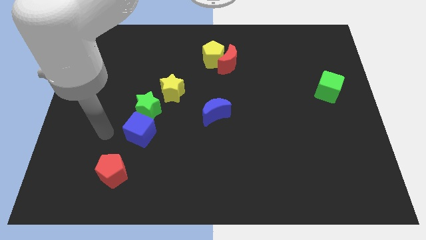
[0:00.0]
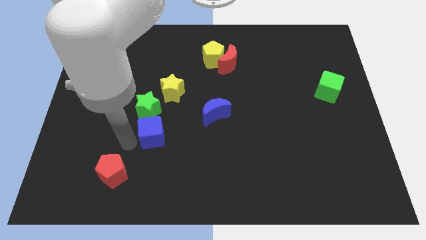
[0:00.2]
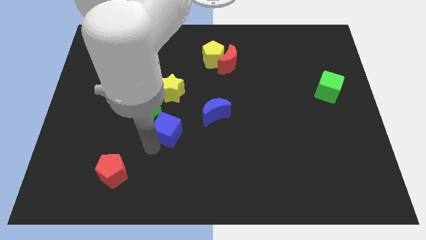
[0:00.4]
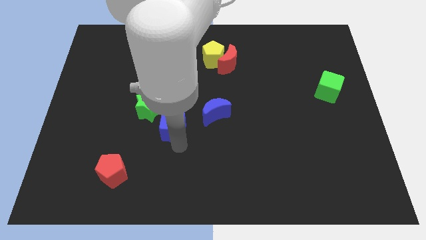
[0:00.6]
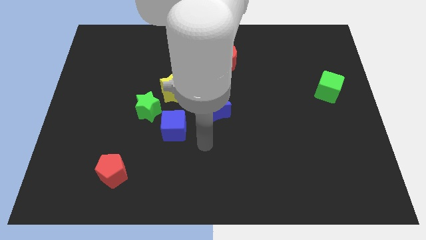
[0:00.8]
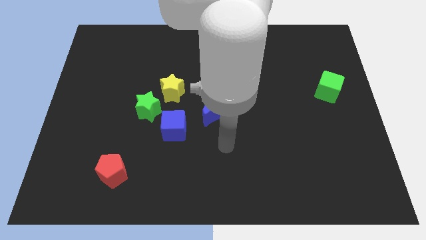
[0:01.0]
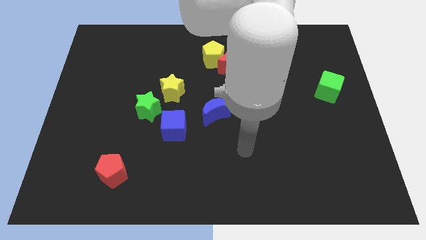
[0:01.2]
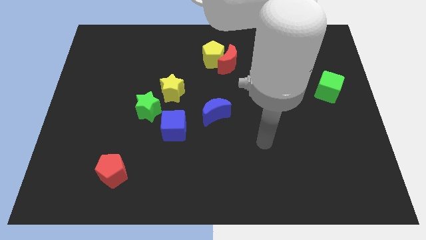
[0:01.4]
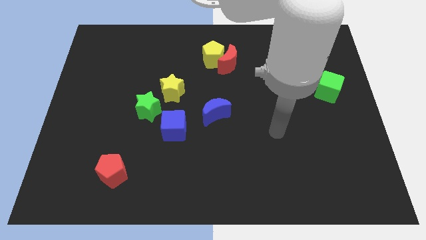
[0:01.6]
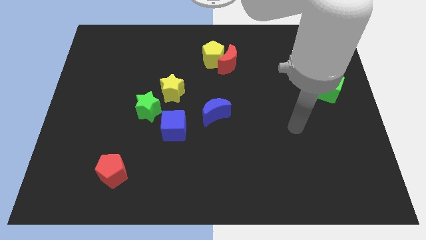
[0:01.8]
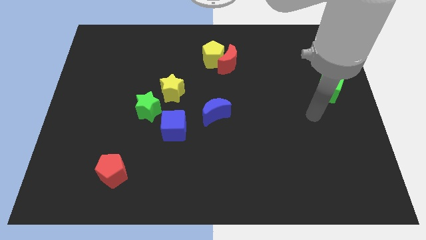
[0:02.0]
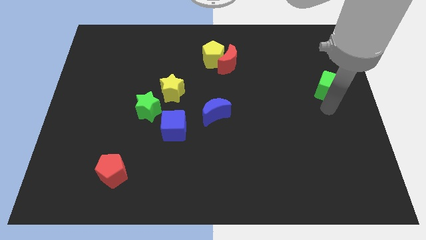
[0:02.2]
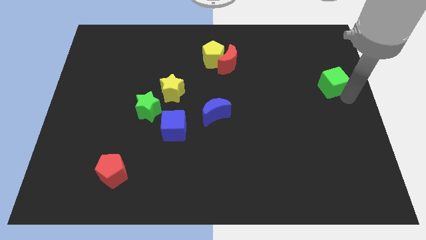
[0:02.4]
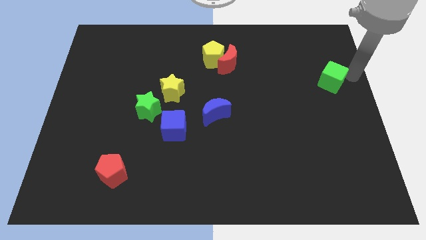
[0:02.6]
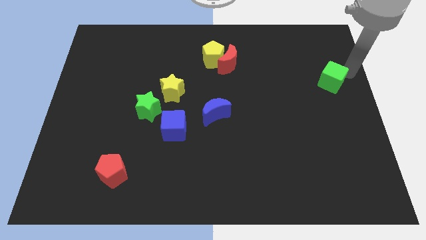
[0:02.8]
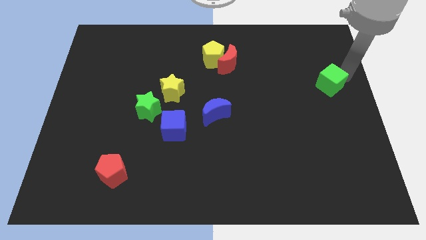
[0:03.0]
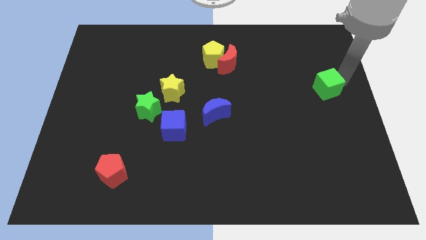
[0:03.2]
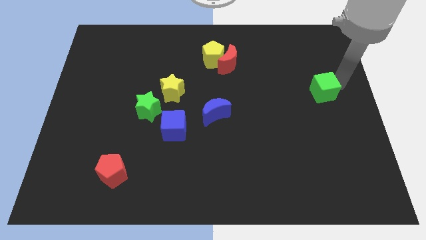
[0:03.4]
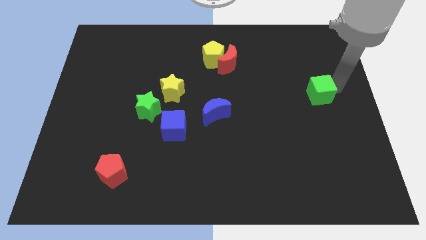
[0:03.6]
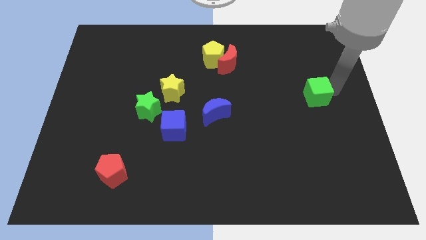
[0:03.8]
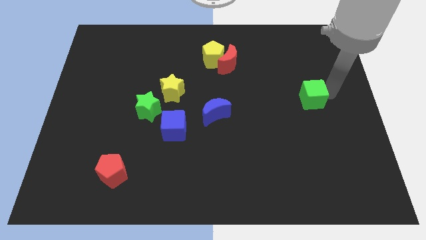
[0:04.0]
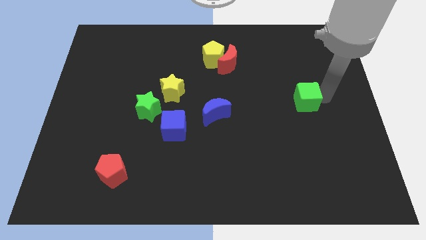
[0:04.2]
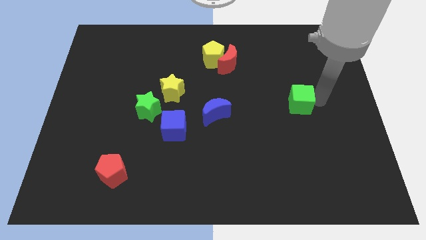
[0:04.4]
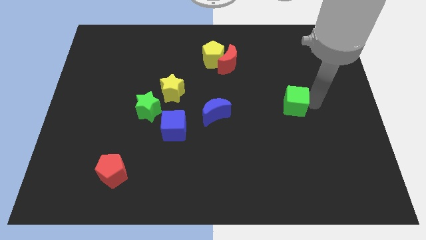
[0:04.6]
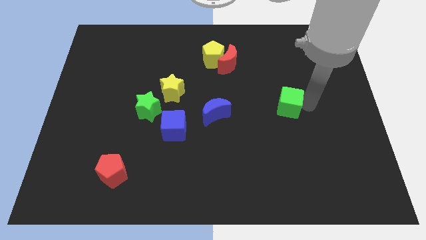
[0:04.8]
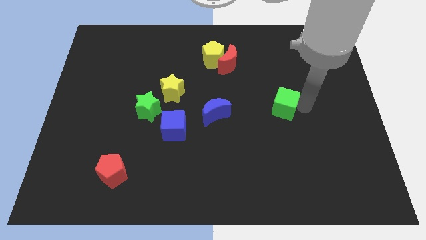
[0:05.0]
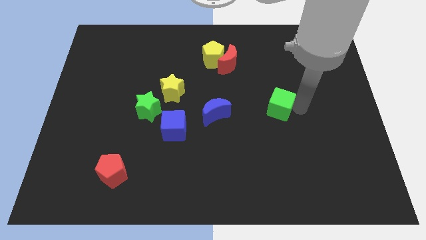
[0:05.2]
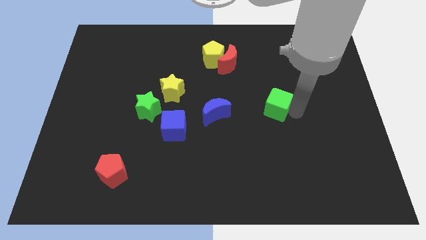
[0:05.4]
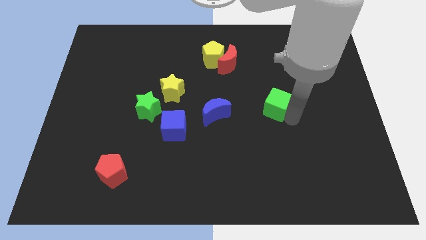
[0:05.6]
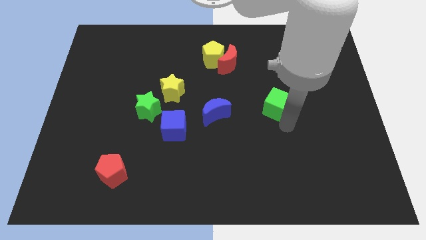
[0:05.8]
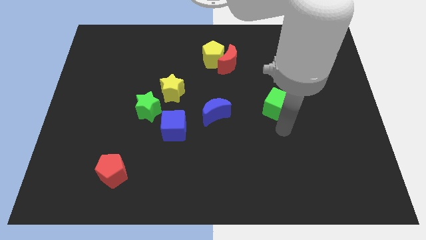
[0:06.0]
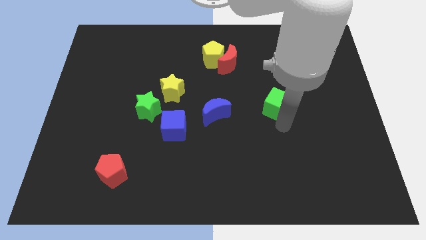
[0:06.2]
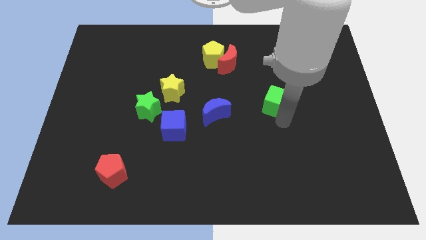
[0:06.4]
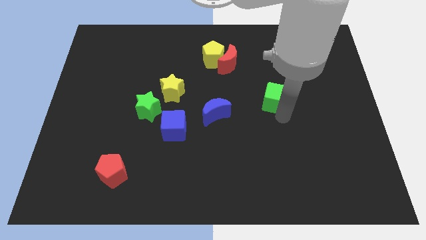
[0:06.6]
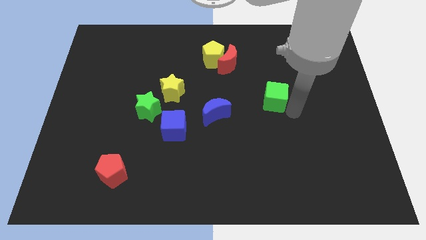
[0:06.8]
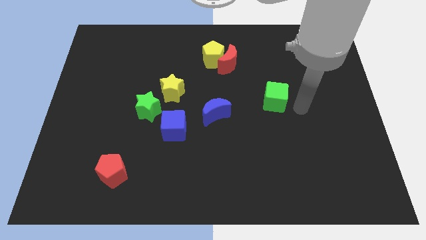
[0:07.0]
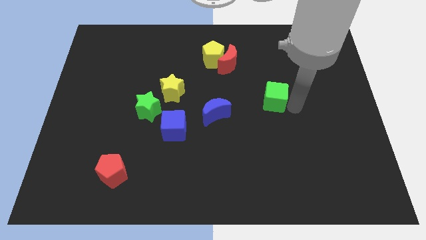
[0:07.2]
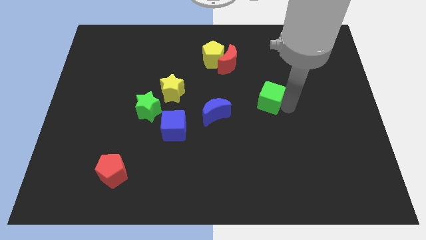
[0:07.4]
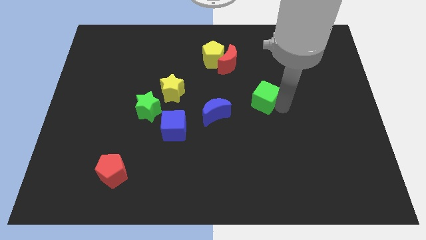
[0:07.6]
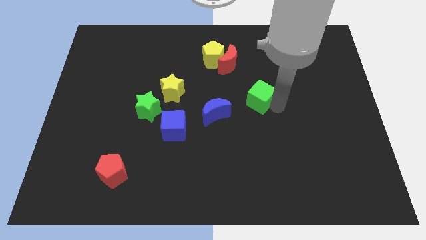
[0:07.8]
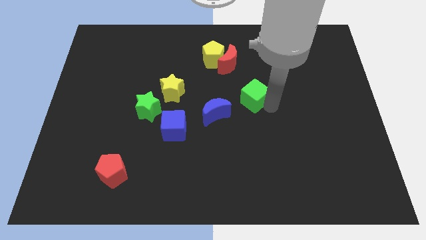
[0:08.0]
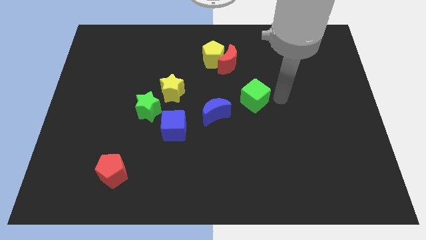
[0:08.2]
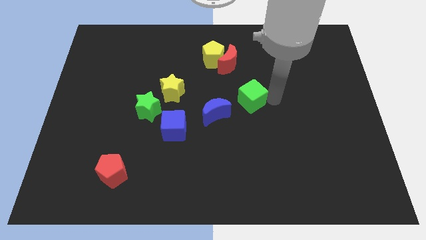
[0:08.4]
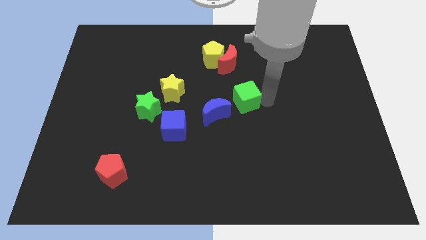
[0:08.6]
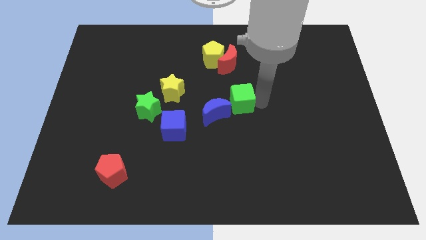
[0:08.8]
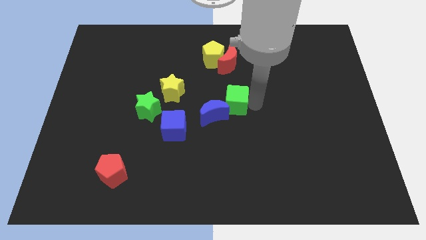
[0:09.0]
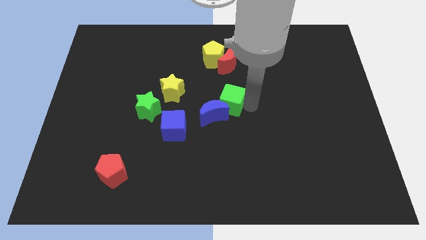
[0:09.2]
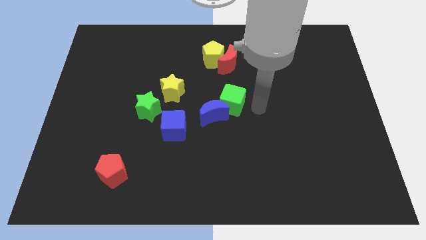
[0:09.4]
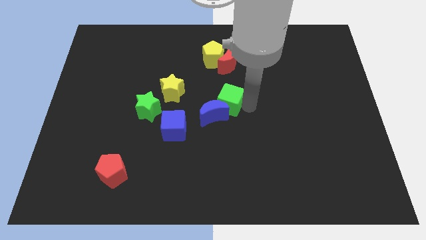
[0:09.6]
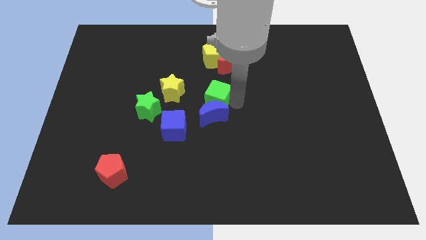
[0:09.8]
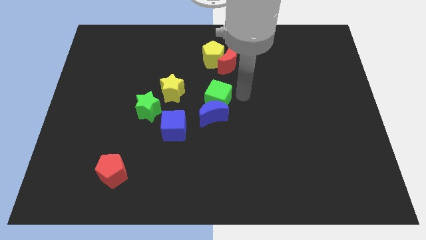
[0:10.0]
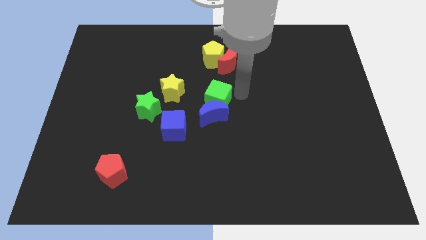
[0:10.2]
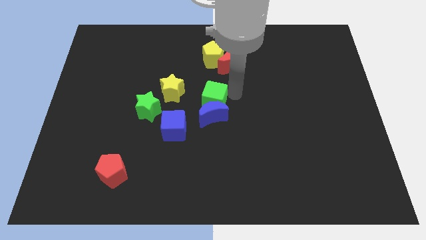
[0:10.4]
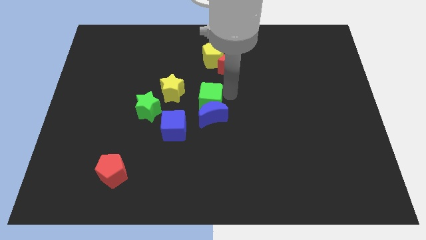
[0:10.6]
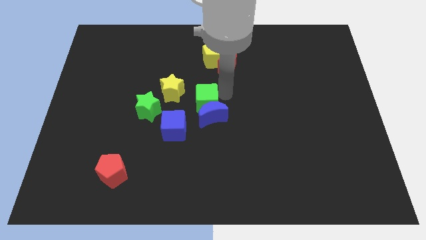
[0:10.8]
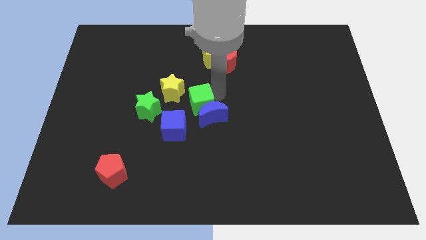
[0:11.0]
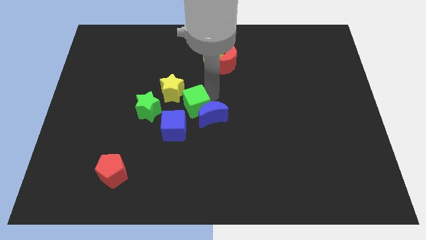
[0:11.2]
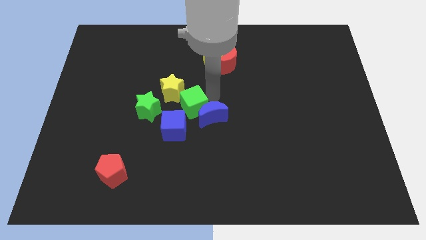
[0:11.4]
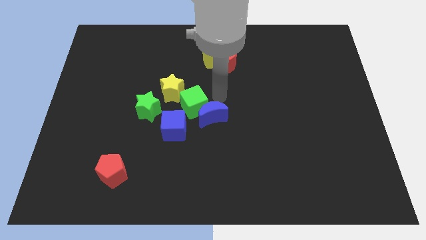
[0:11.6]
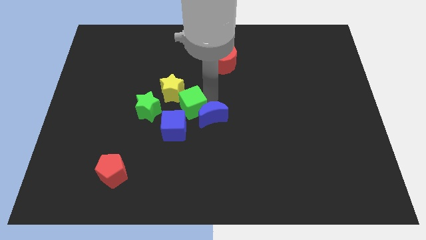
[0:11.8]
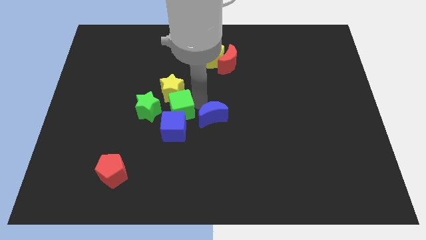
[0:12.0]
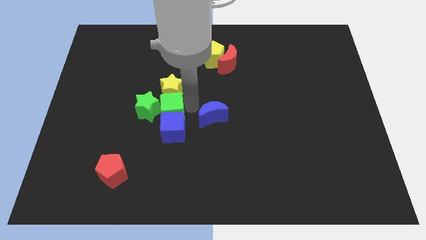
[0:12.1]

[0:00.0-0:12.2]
put the green cube close to the green star

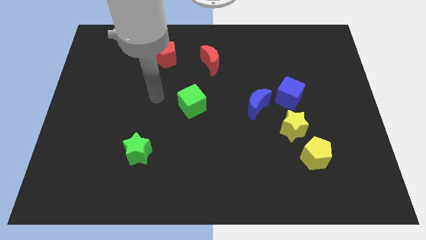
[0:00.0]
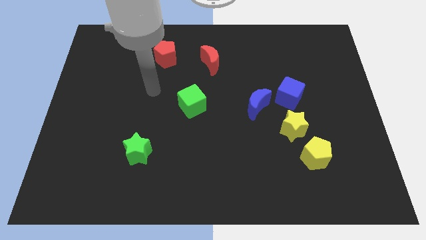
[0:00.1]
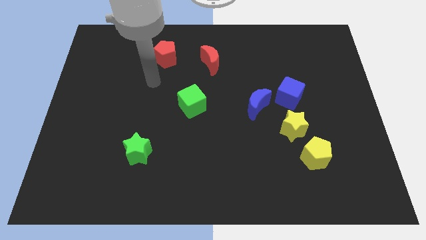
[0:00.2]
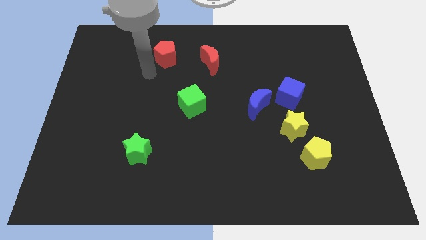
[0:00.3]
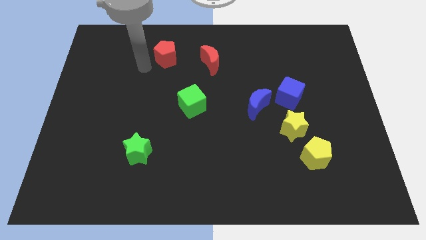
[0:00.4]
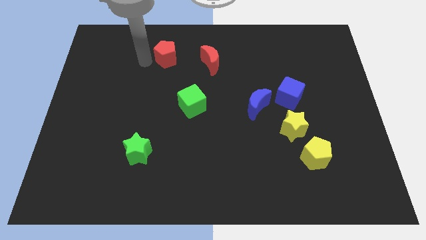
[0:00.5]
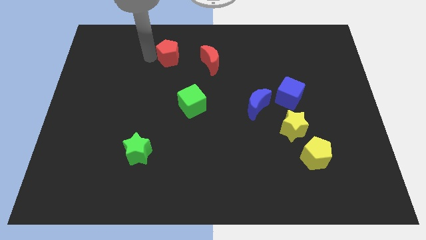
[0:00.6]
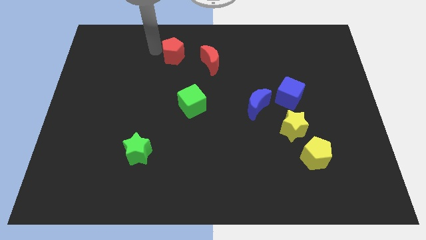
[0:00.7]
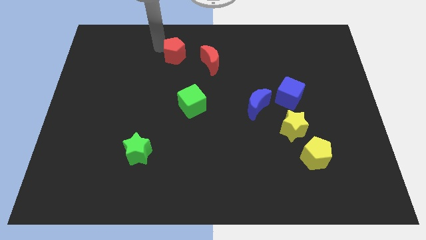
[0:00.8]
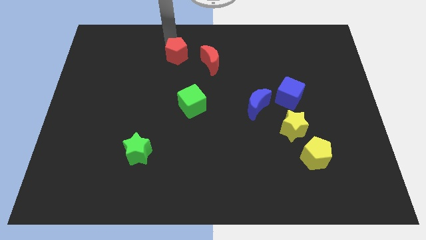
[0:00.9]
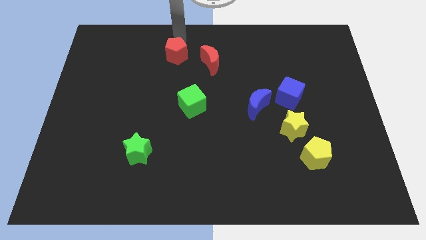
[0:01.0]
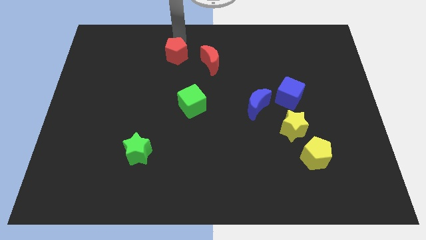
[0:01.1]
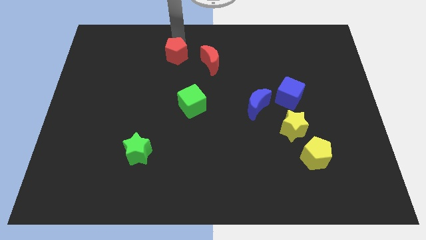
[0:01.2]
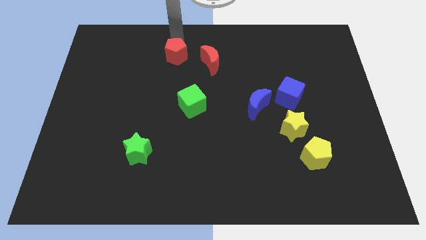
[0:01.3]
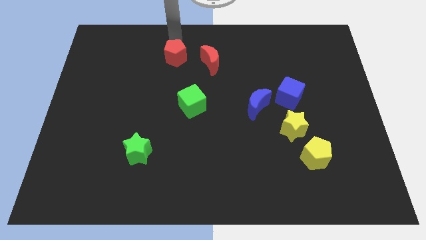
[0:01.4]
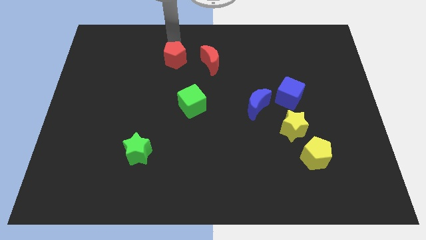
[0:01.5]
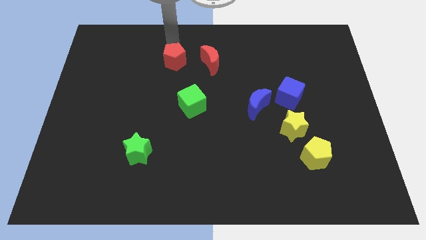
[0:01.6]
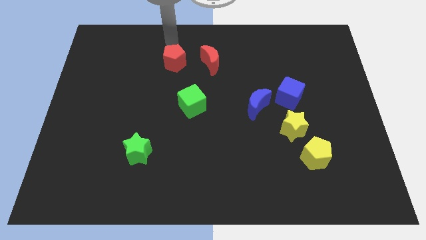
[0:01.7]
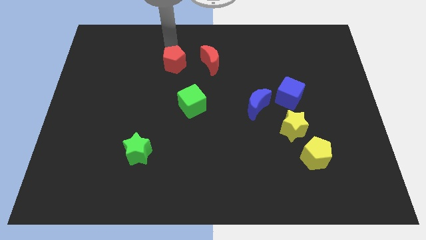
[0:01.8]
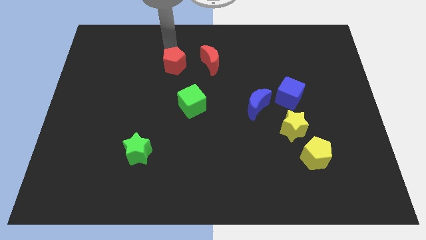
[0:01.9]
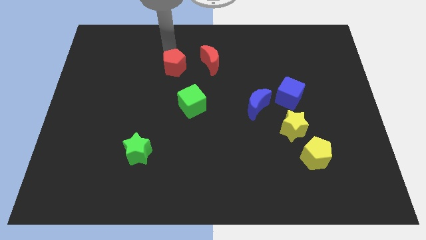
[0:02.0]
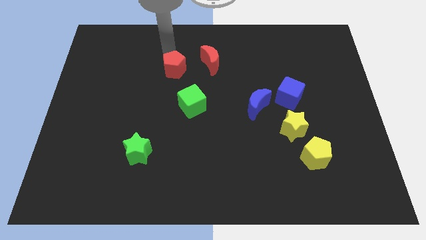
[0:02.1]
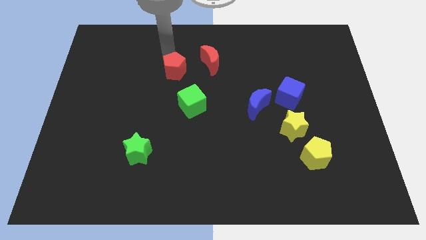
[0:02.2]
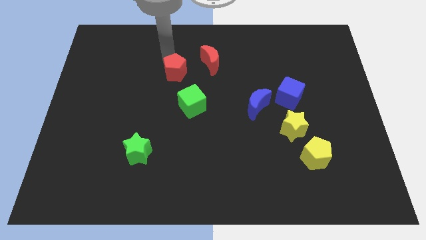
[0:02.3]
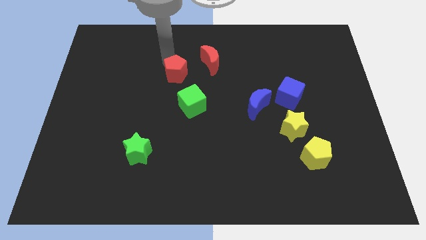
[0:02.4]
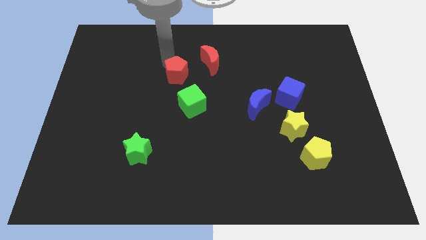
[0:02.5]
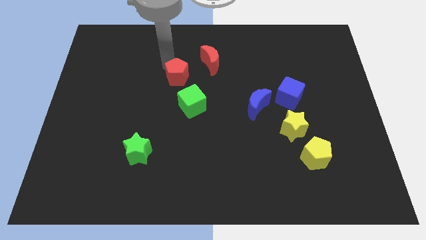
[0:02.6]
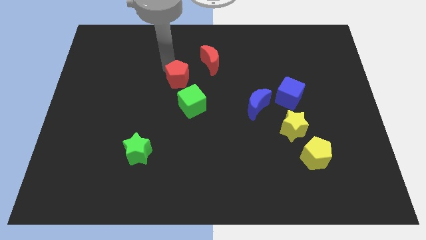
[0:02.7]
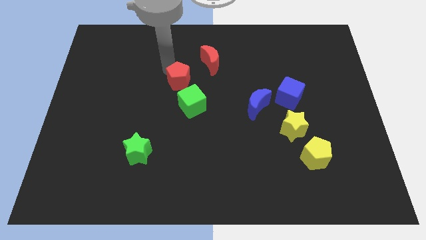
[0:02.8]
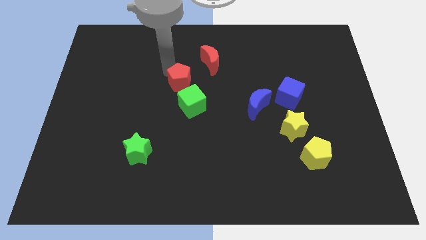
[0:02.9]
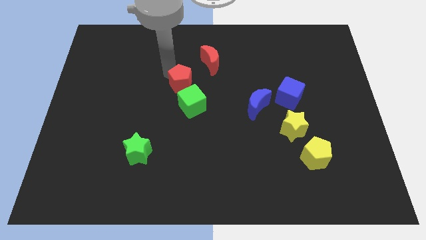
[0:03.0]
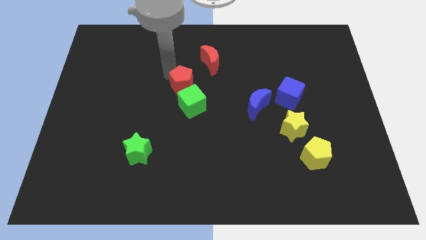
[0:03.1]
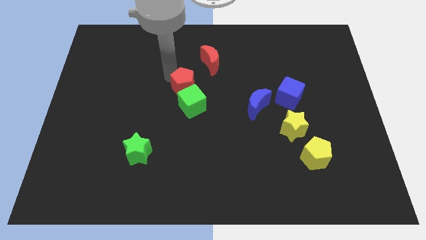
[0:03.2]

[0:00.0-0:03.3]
slide the red pentagon to the green cube
